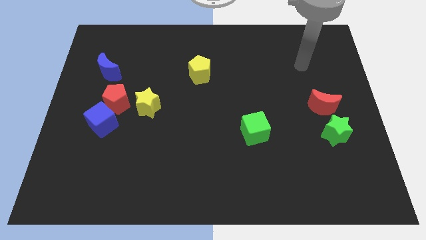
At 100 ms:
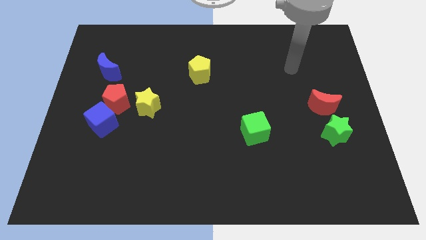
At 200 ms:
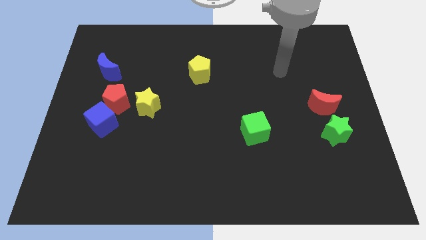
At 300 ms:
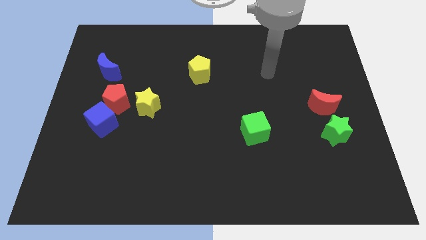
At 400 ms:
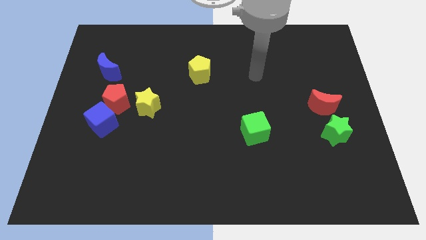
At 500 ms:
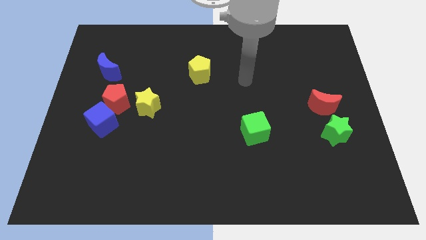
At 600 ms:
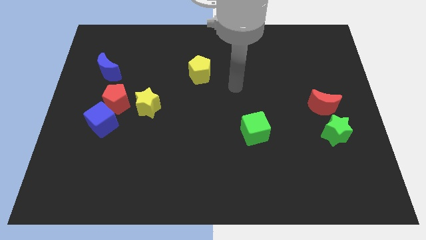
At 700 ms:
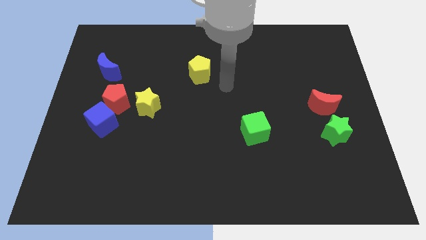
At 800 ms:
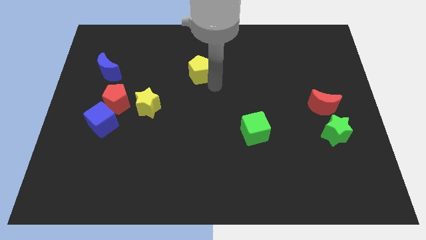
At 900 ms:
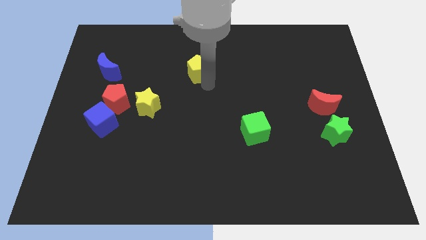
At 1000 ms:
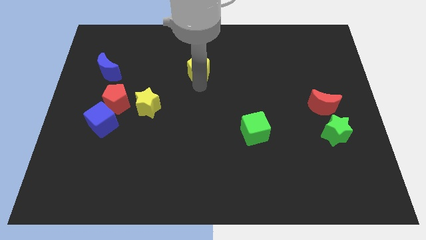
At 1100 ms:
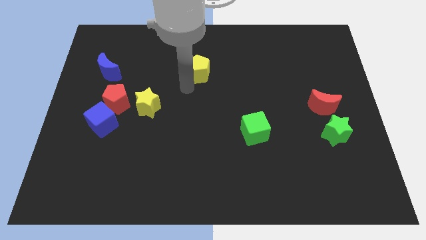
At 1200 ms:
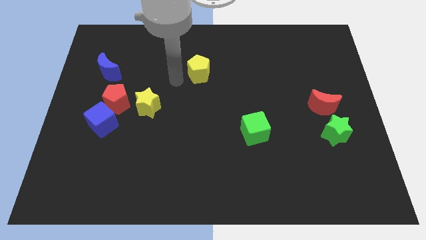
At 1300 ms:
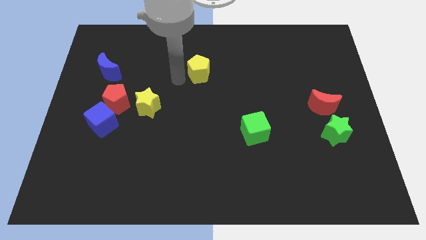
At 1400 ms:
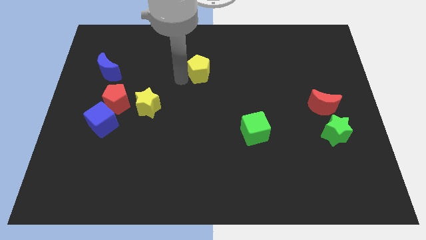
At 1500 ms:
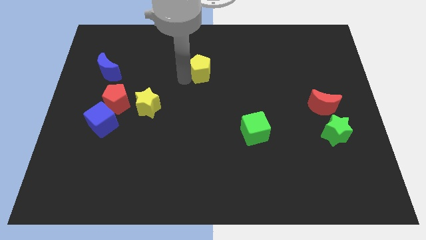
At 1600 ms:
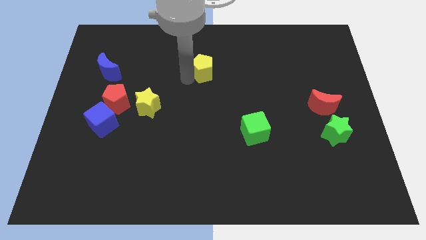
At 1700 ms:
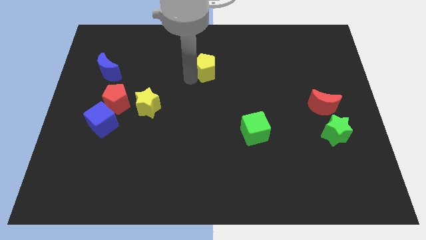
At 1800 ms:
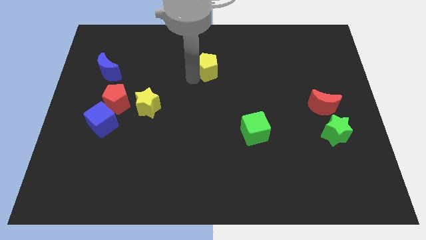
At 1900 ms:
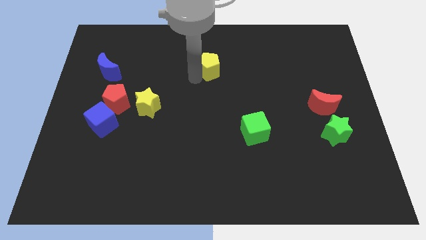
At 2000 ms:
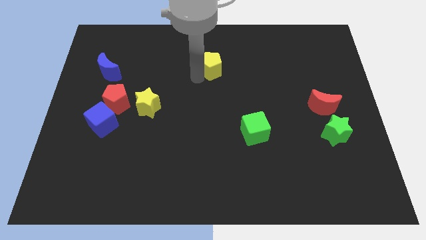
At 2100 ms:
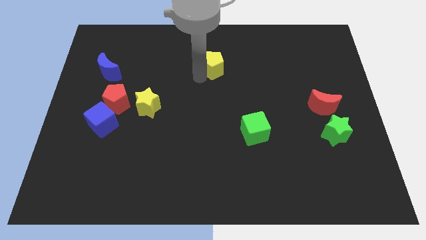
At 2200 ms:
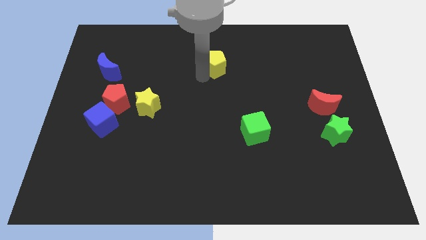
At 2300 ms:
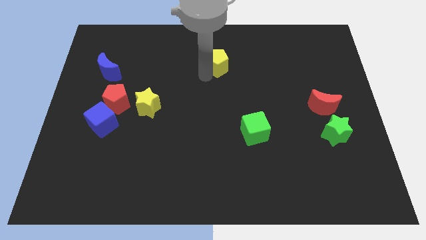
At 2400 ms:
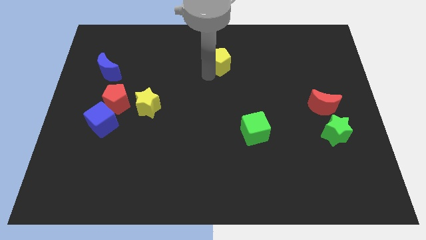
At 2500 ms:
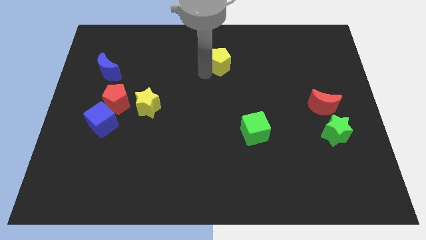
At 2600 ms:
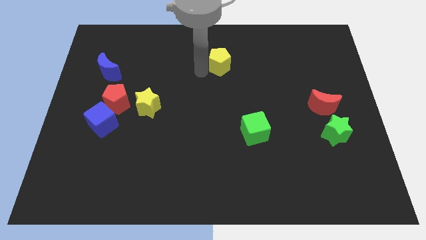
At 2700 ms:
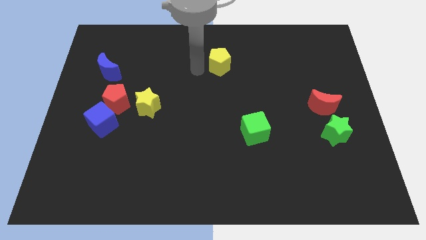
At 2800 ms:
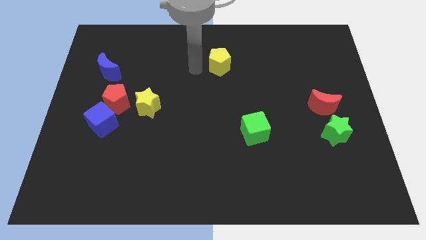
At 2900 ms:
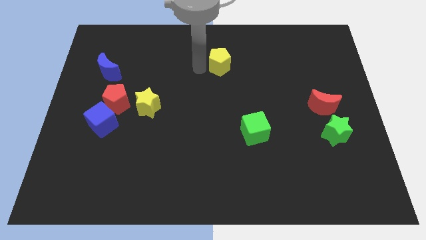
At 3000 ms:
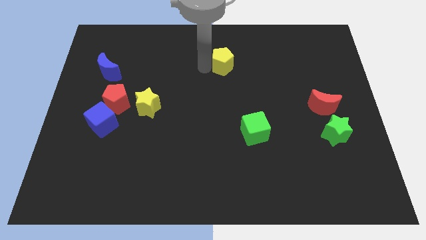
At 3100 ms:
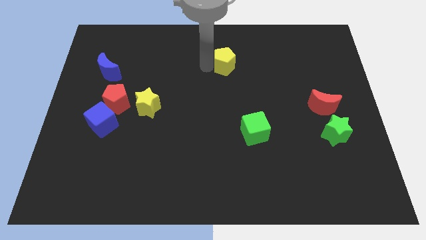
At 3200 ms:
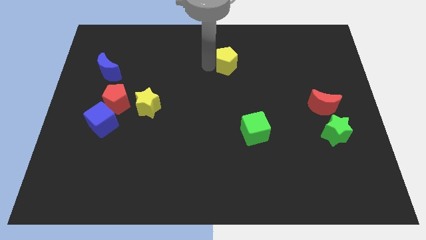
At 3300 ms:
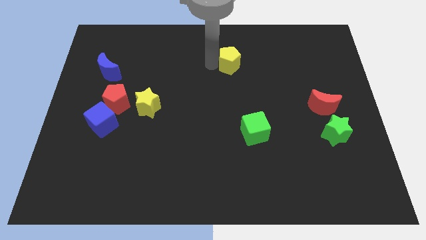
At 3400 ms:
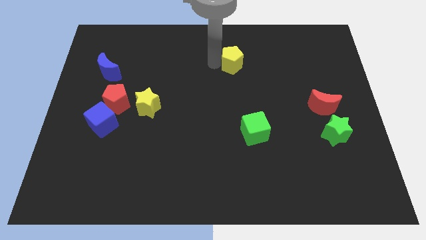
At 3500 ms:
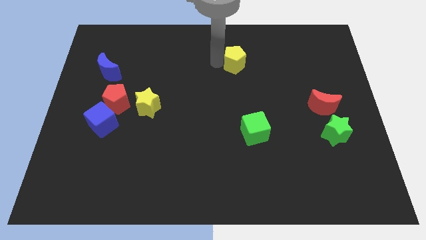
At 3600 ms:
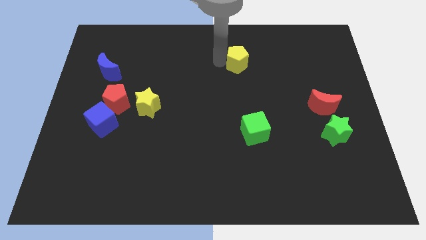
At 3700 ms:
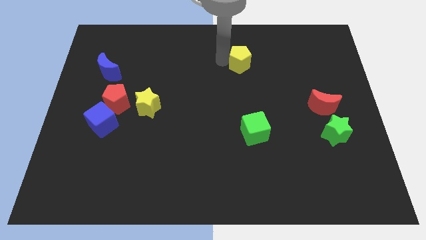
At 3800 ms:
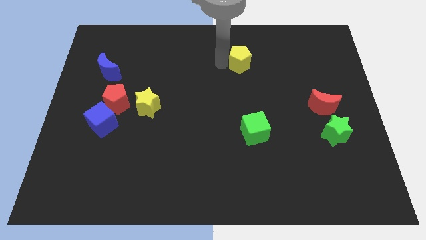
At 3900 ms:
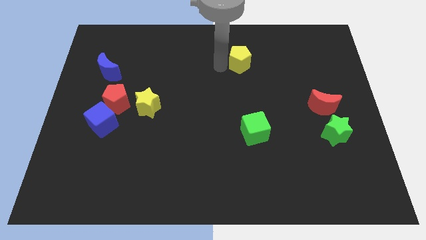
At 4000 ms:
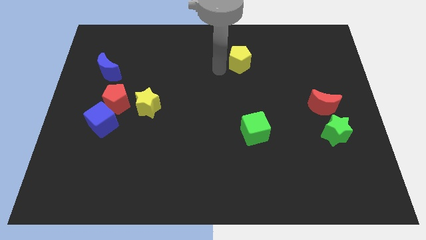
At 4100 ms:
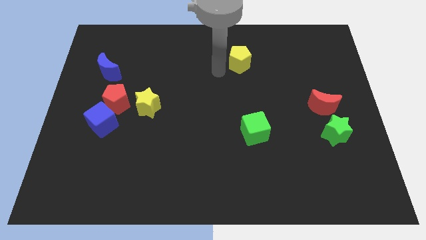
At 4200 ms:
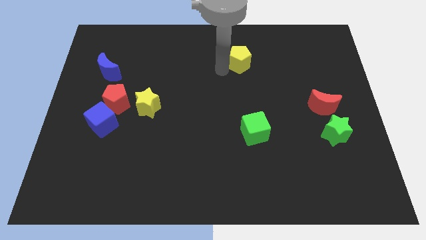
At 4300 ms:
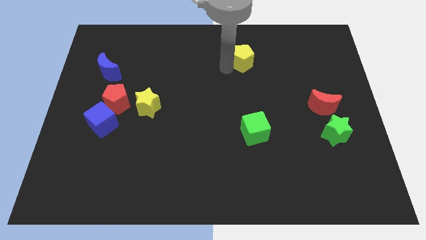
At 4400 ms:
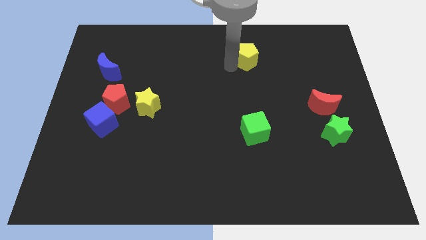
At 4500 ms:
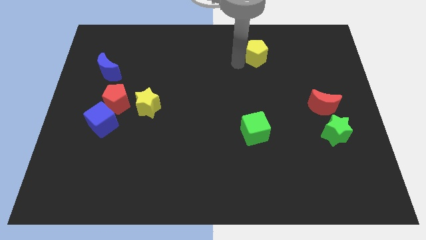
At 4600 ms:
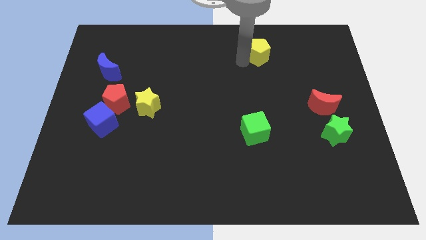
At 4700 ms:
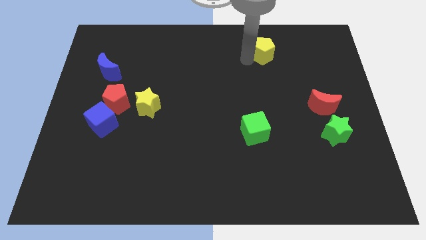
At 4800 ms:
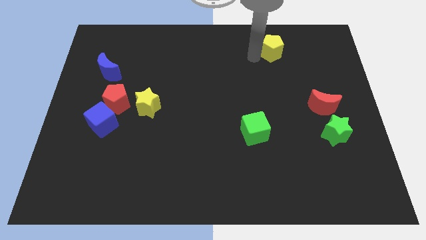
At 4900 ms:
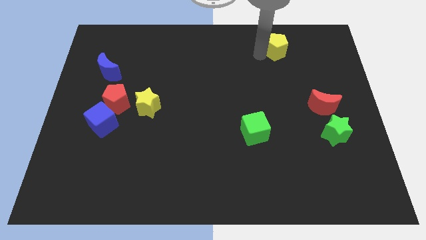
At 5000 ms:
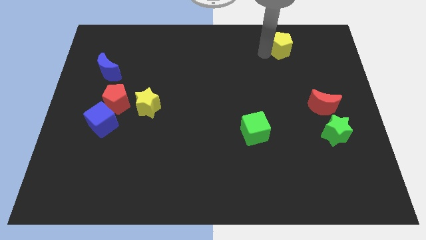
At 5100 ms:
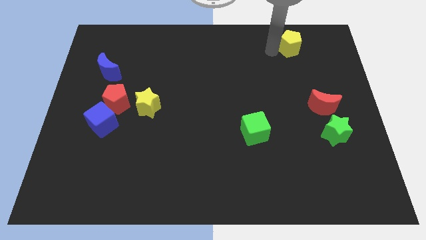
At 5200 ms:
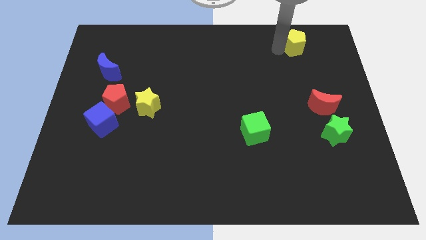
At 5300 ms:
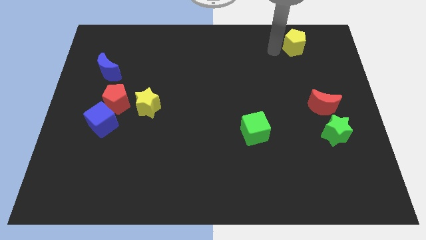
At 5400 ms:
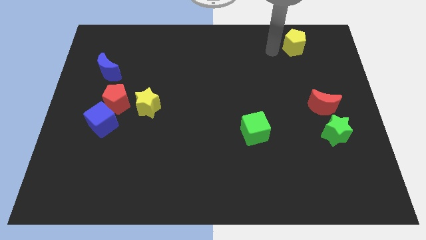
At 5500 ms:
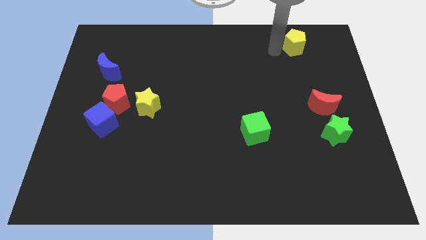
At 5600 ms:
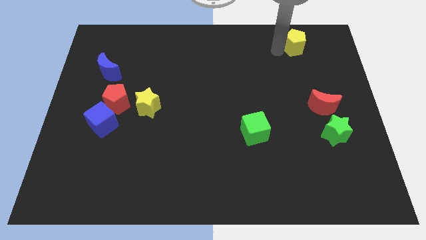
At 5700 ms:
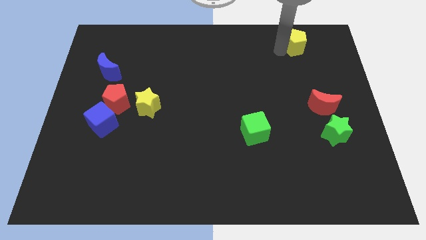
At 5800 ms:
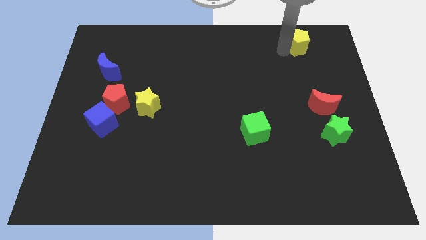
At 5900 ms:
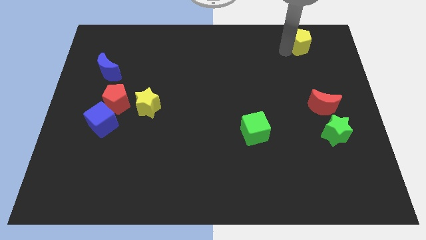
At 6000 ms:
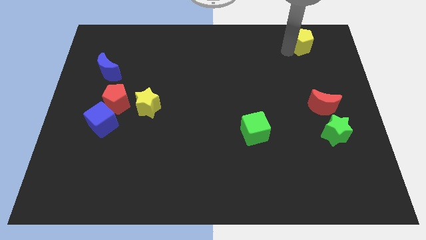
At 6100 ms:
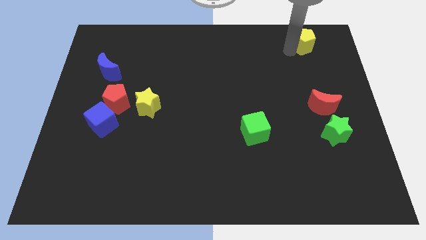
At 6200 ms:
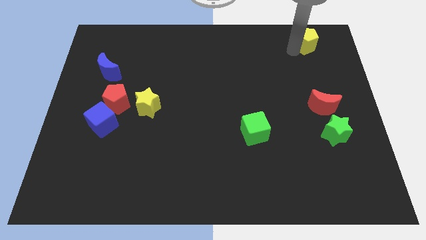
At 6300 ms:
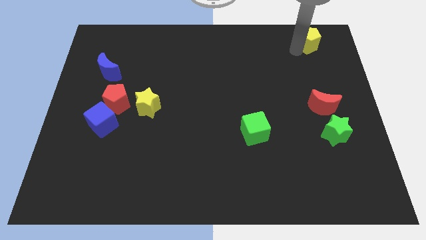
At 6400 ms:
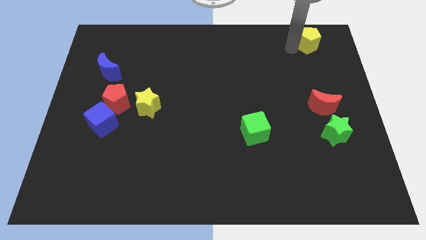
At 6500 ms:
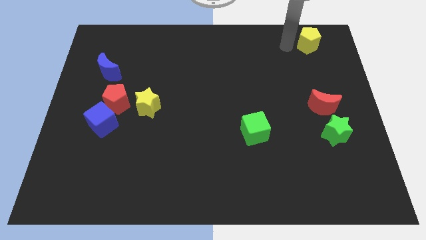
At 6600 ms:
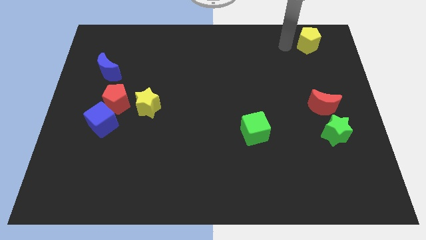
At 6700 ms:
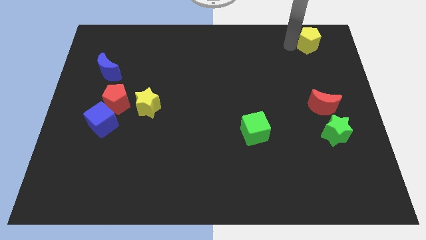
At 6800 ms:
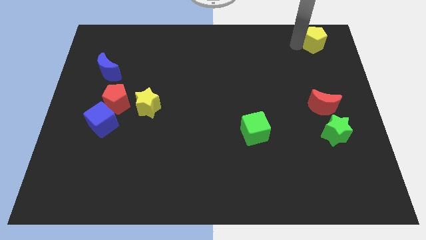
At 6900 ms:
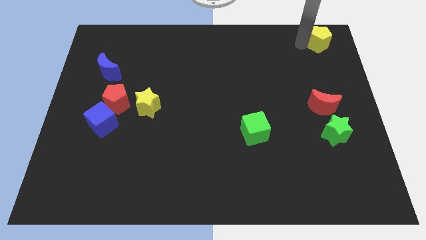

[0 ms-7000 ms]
slide the yellow pentagon to the top right corner
